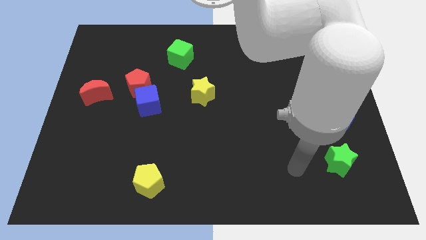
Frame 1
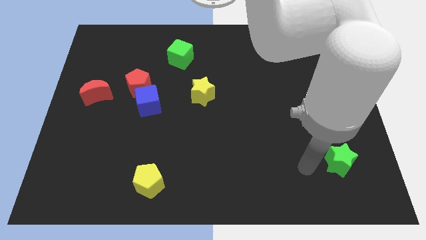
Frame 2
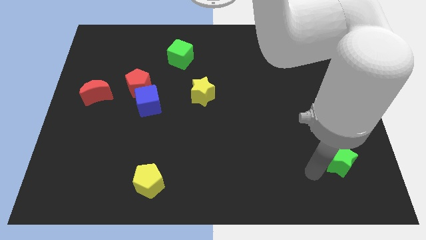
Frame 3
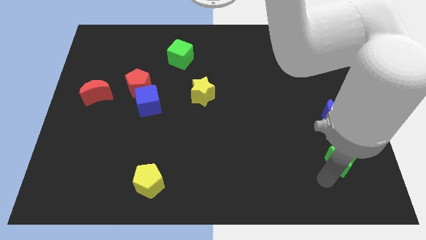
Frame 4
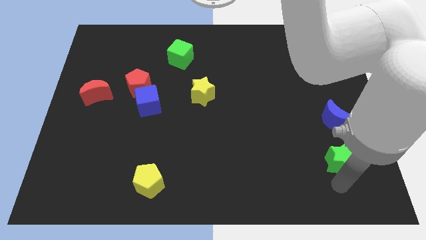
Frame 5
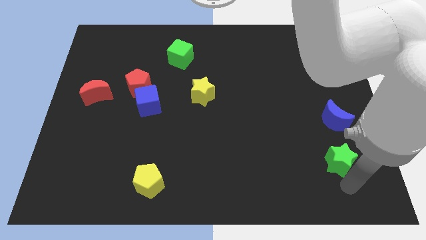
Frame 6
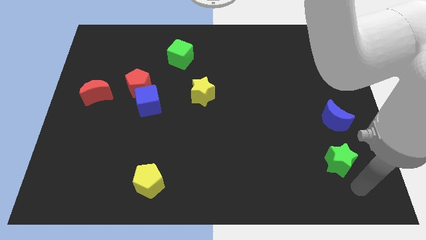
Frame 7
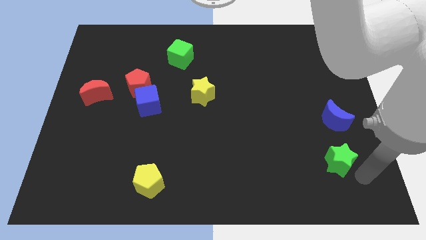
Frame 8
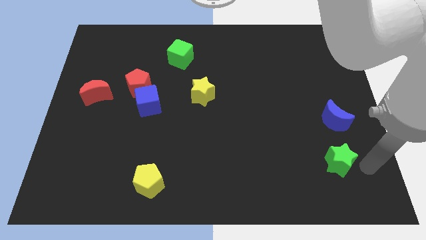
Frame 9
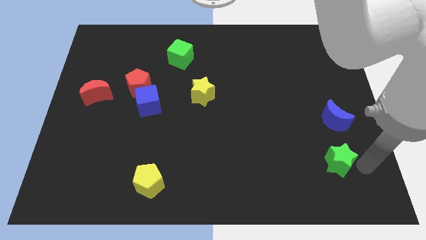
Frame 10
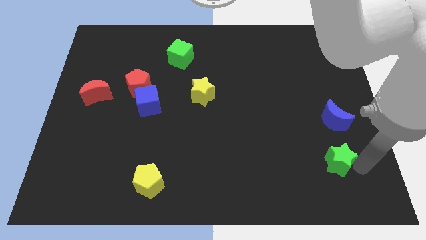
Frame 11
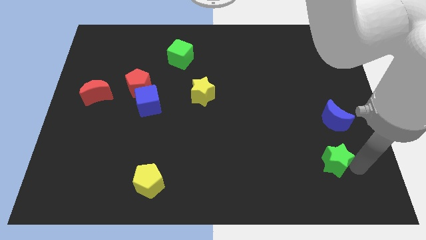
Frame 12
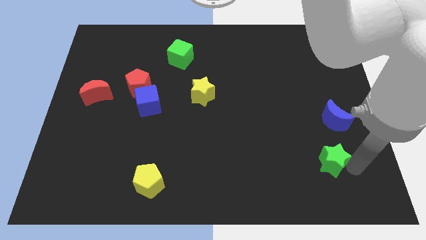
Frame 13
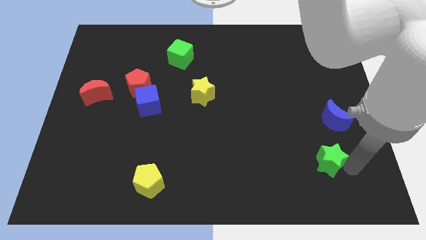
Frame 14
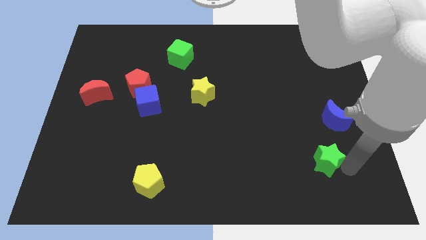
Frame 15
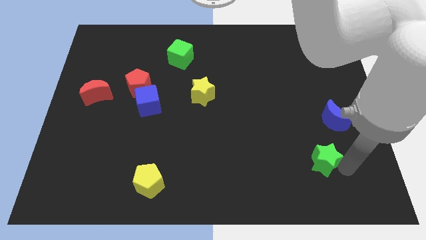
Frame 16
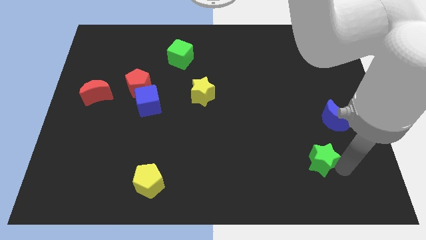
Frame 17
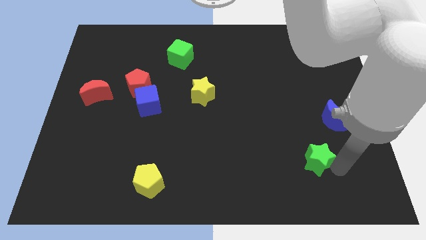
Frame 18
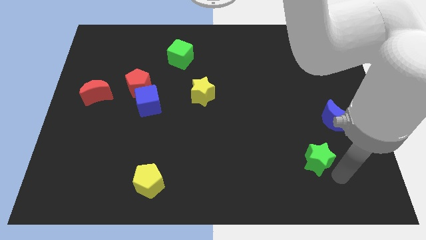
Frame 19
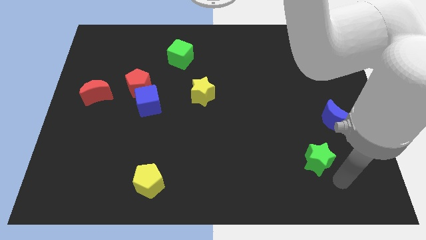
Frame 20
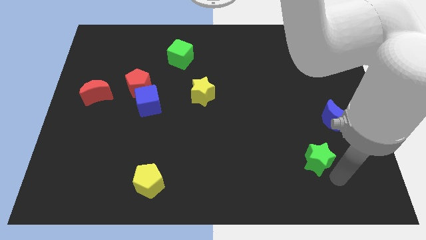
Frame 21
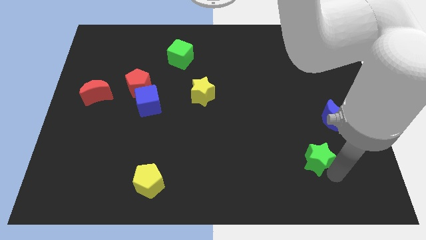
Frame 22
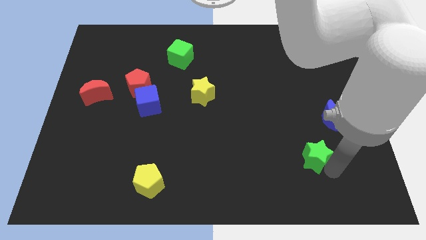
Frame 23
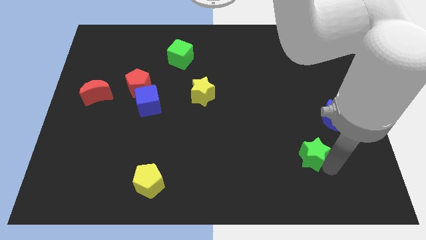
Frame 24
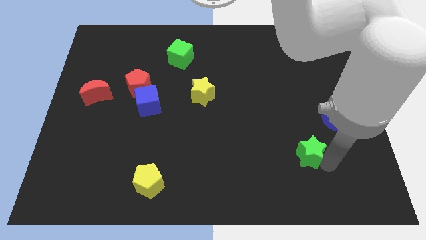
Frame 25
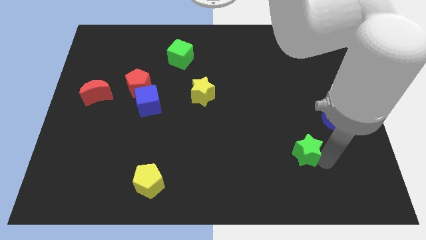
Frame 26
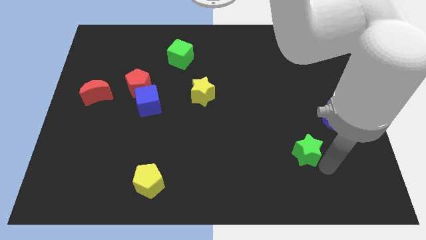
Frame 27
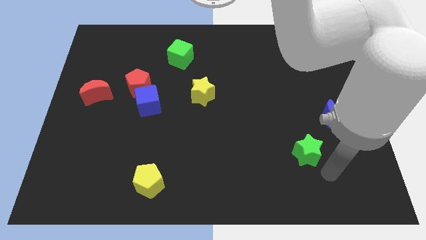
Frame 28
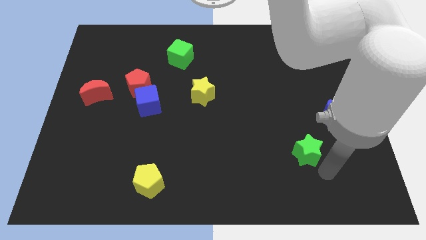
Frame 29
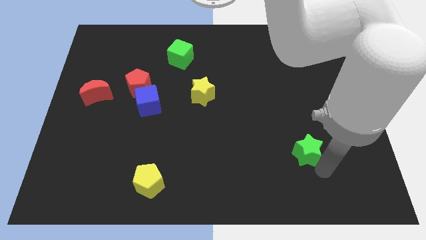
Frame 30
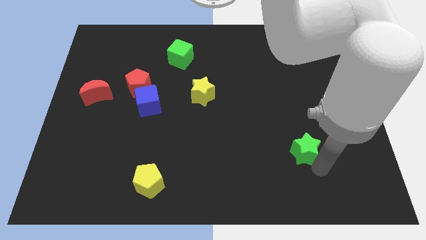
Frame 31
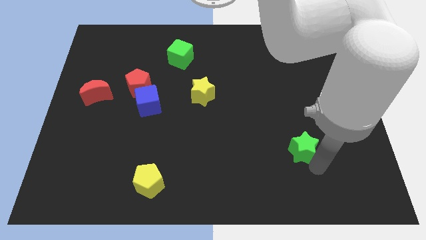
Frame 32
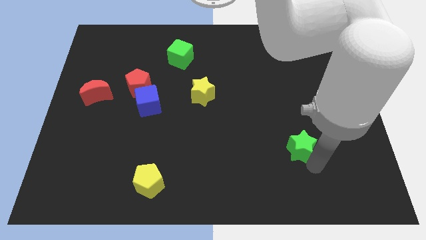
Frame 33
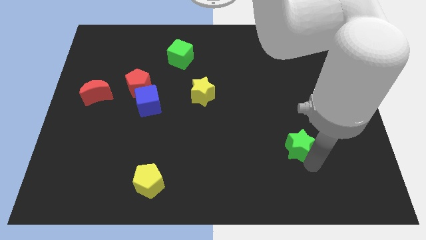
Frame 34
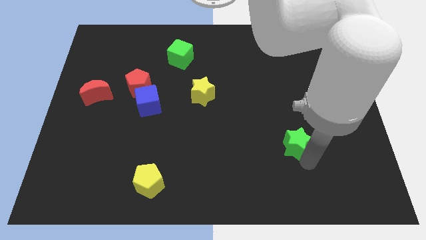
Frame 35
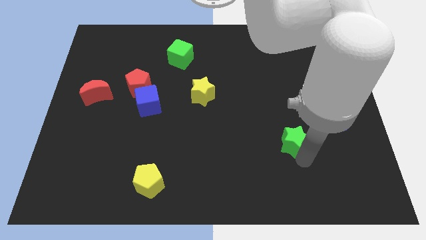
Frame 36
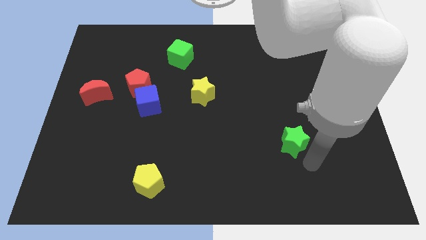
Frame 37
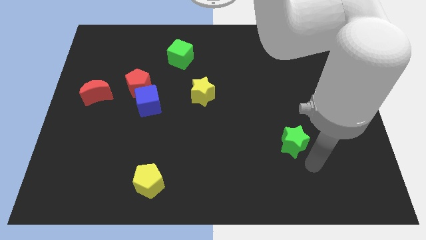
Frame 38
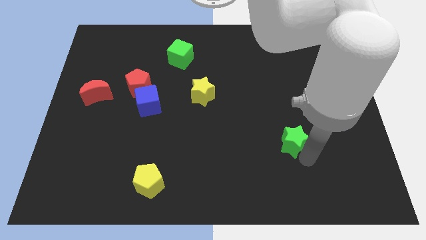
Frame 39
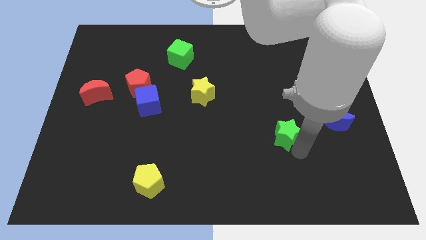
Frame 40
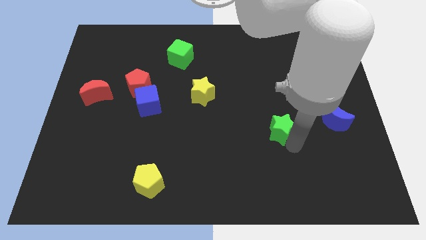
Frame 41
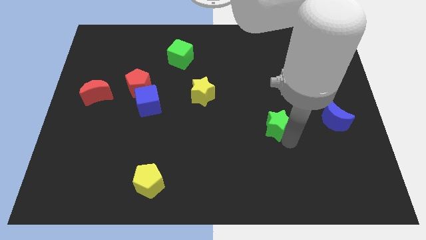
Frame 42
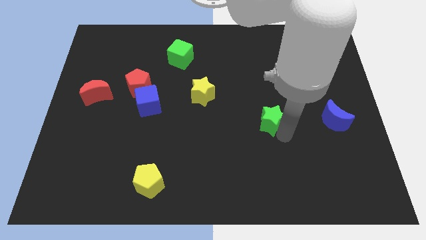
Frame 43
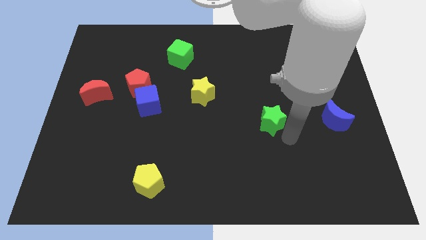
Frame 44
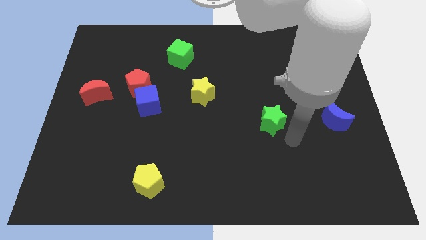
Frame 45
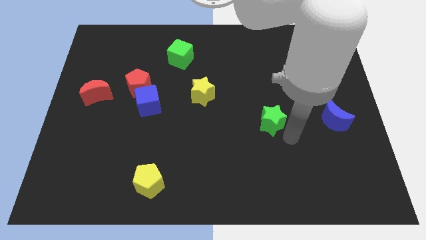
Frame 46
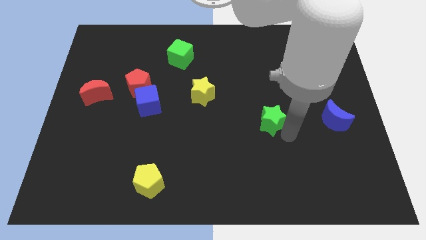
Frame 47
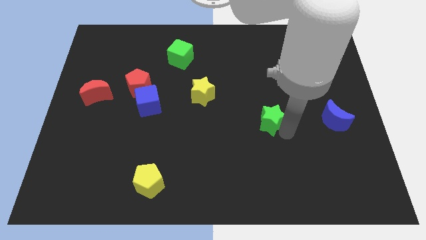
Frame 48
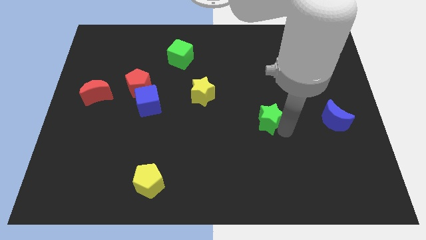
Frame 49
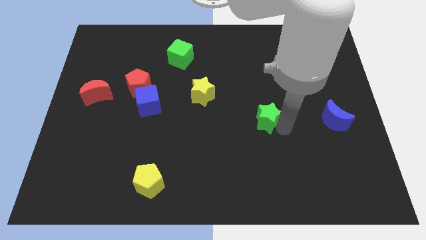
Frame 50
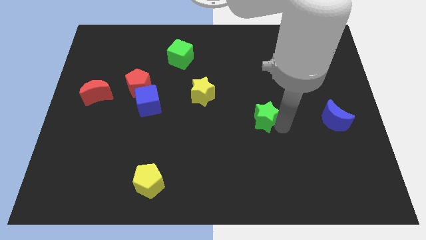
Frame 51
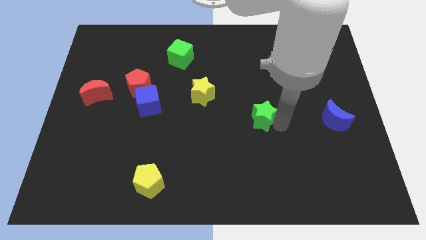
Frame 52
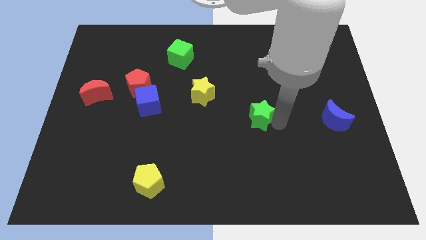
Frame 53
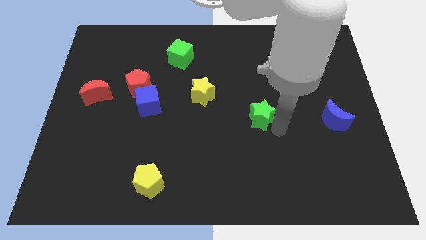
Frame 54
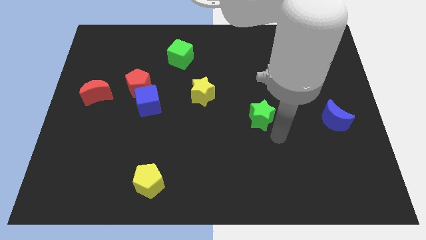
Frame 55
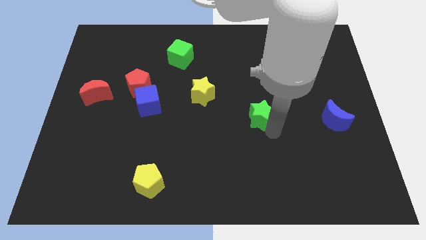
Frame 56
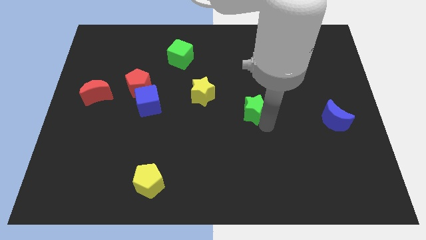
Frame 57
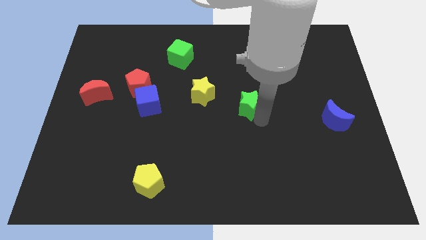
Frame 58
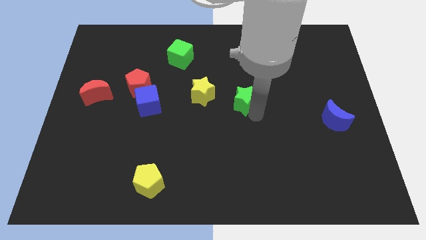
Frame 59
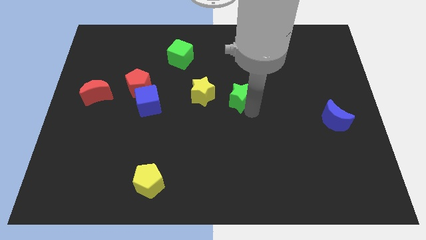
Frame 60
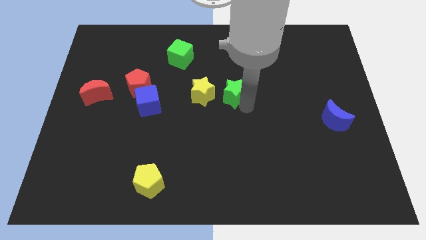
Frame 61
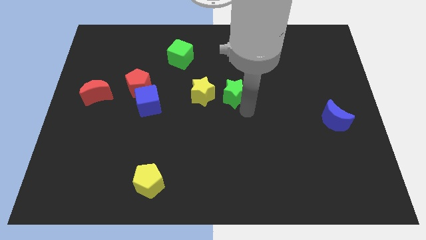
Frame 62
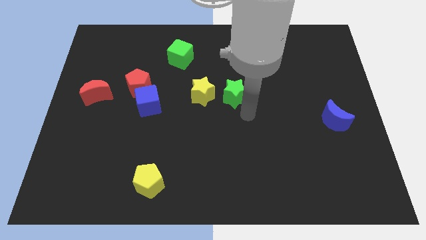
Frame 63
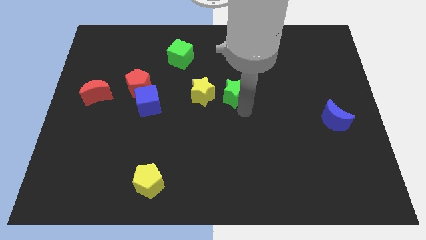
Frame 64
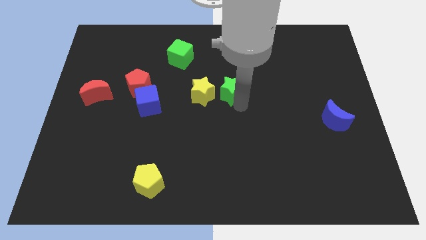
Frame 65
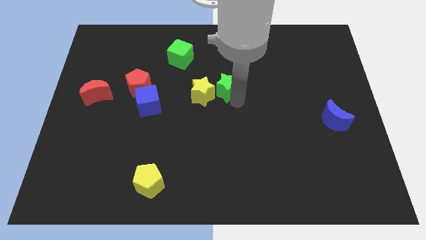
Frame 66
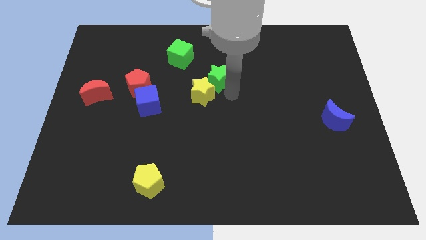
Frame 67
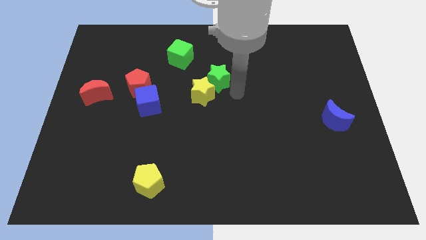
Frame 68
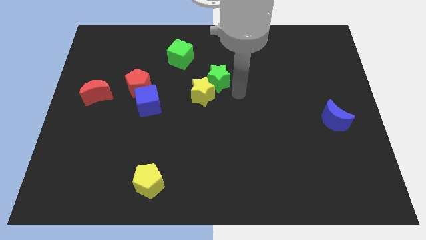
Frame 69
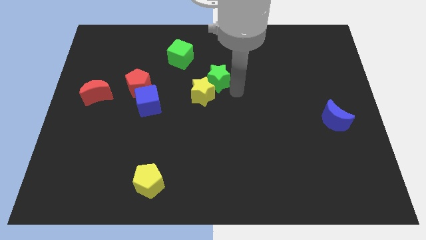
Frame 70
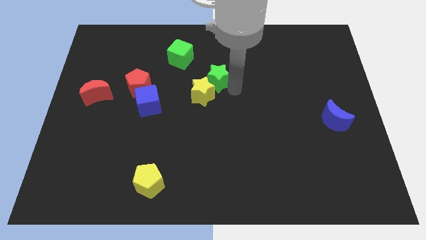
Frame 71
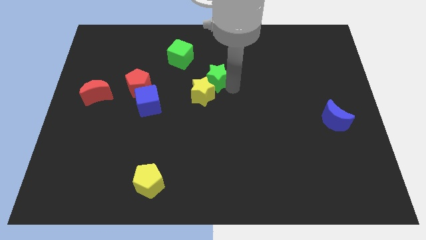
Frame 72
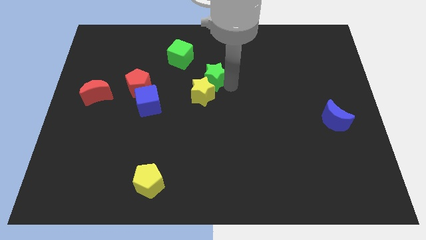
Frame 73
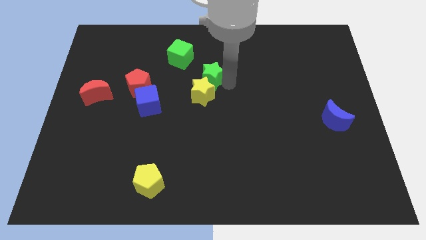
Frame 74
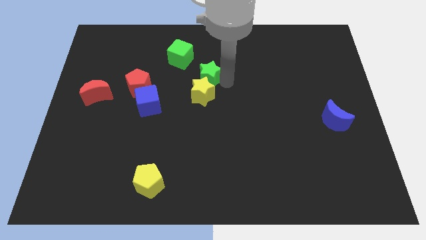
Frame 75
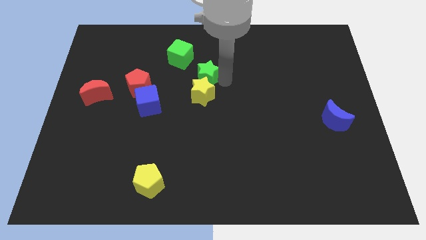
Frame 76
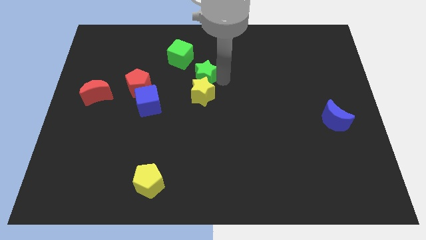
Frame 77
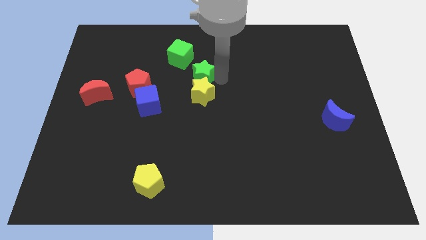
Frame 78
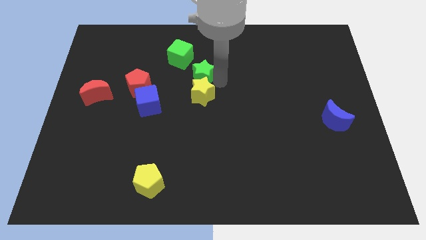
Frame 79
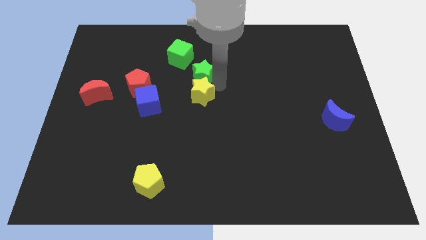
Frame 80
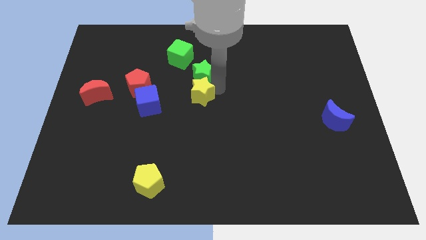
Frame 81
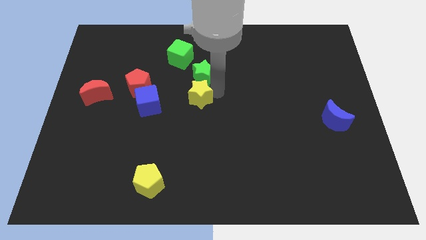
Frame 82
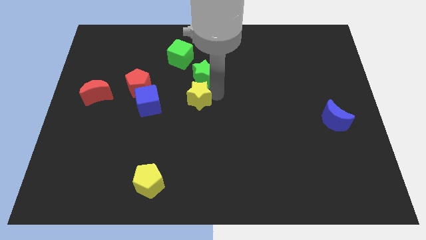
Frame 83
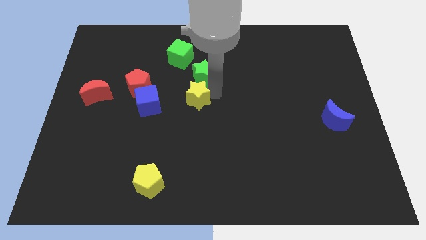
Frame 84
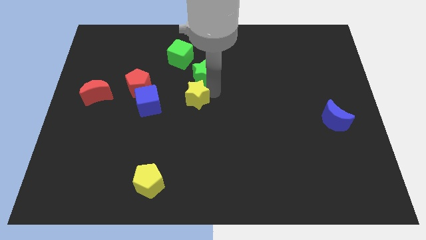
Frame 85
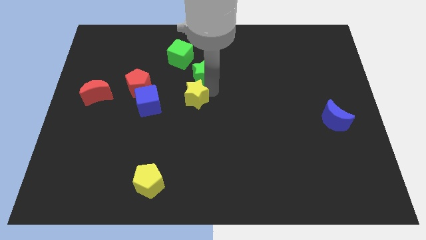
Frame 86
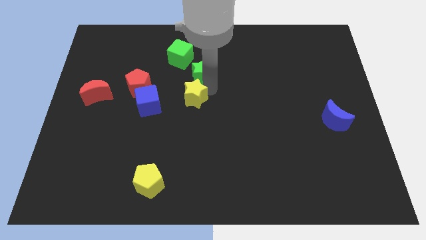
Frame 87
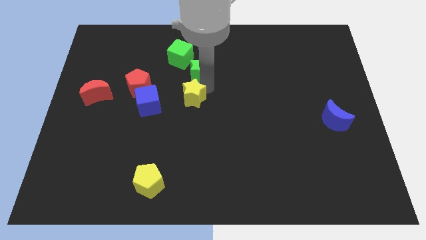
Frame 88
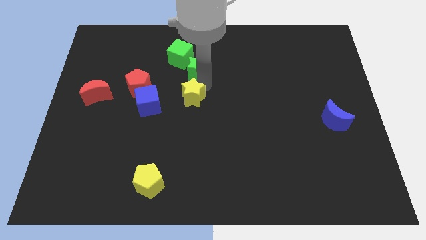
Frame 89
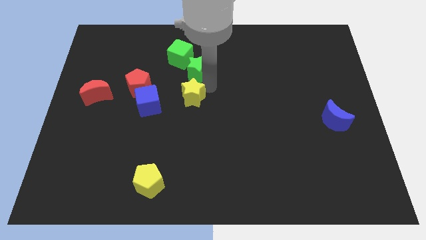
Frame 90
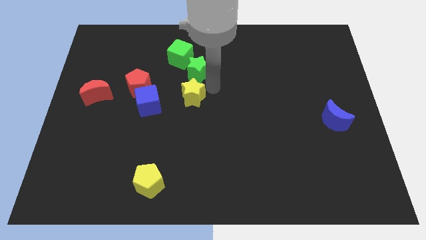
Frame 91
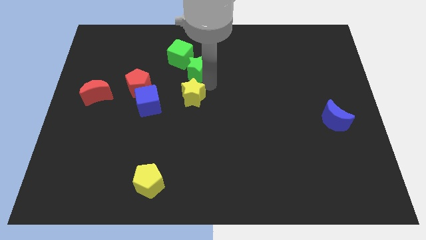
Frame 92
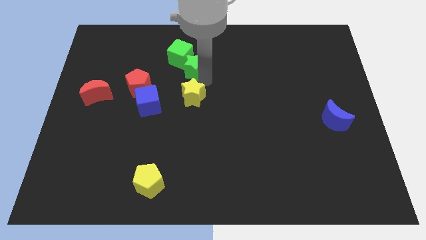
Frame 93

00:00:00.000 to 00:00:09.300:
slide the green star next to the green cube
